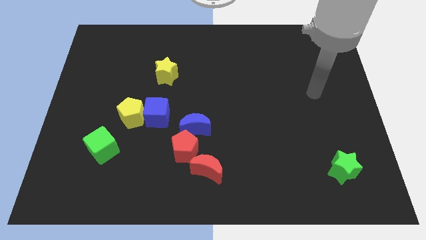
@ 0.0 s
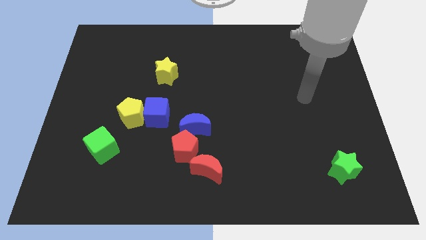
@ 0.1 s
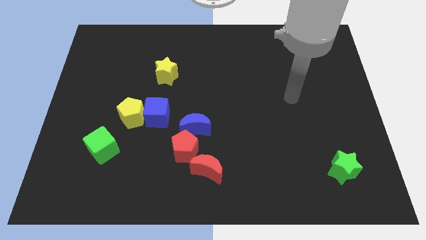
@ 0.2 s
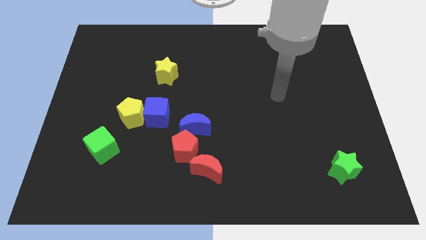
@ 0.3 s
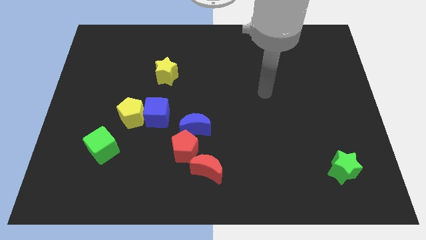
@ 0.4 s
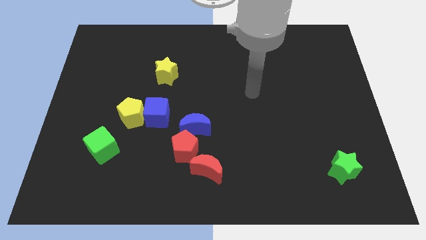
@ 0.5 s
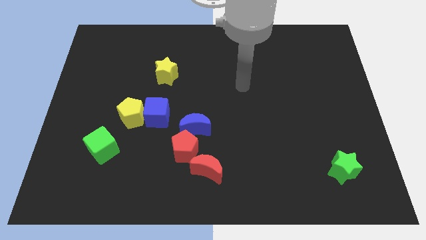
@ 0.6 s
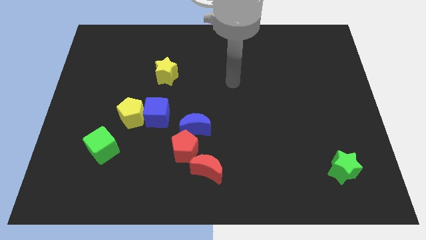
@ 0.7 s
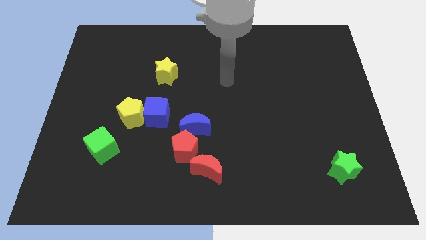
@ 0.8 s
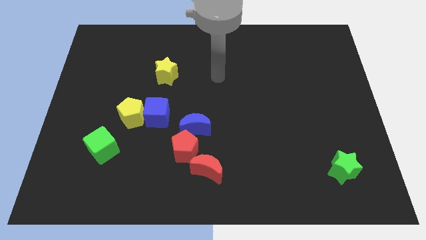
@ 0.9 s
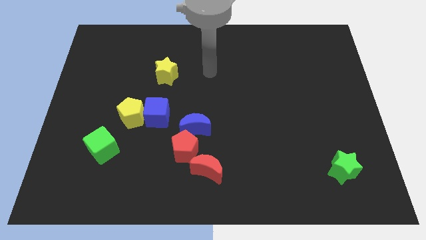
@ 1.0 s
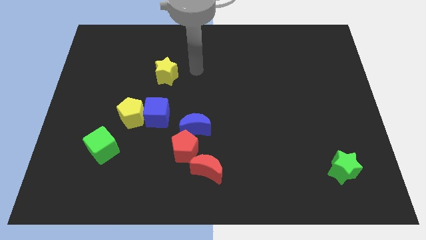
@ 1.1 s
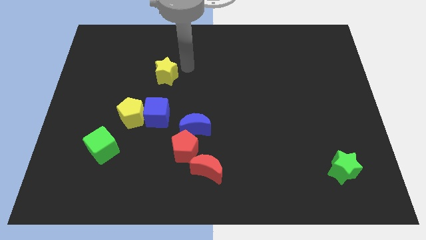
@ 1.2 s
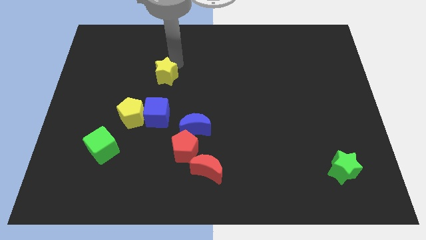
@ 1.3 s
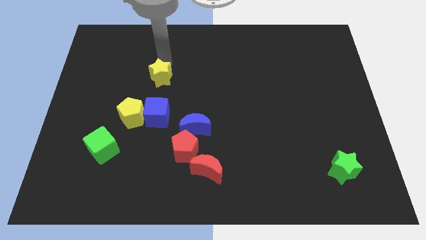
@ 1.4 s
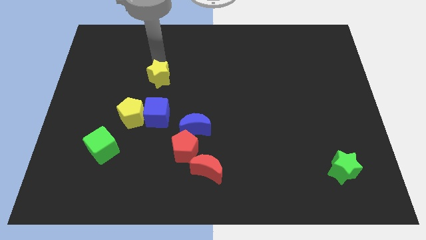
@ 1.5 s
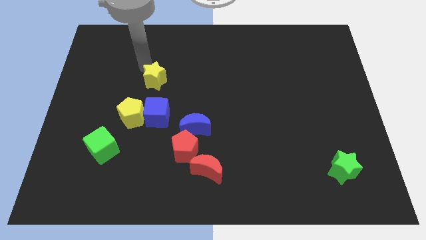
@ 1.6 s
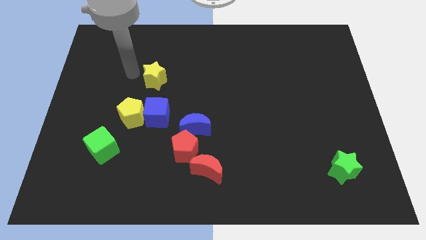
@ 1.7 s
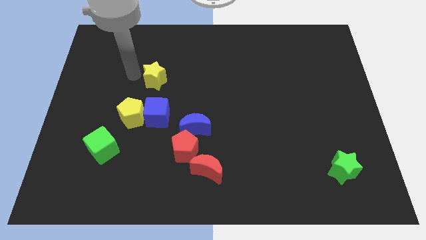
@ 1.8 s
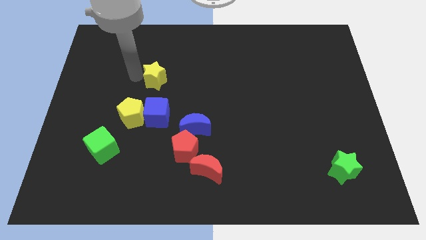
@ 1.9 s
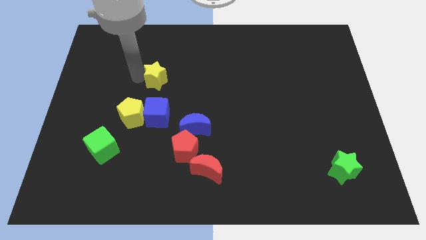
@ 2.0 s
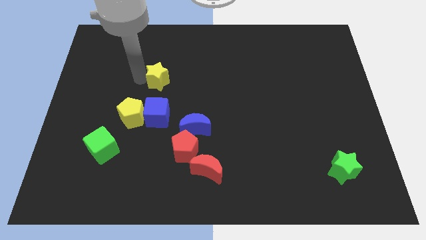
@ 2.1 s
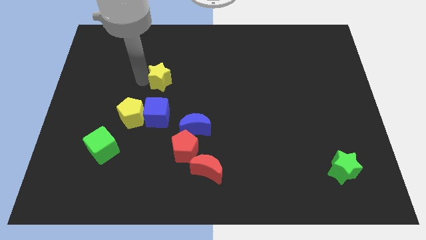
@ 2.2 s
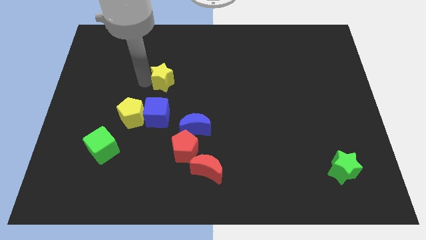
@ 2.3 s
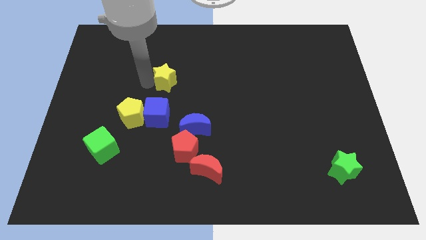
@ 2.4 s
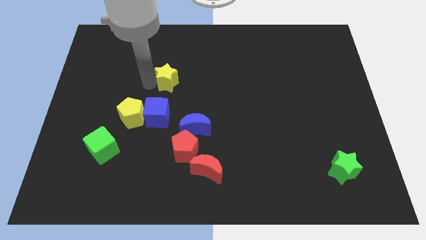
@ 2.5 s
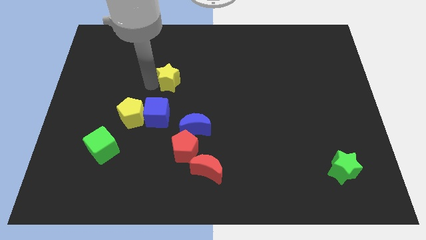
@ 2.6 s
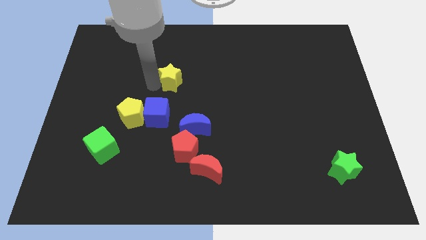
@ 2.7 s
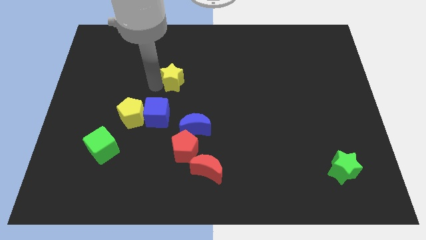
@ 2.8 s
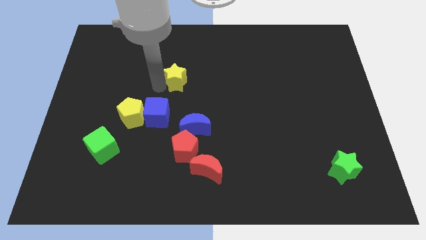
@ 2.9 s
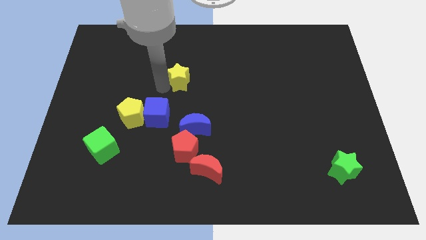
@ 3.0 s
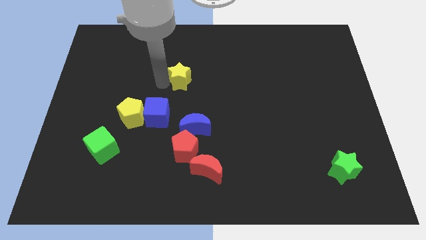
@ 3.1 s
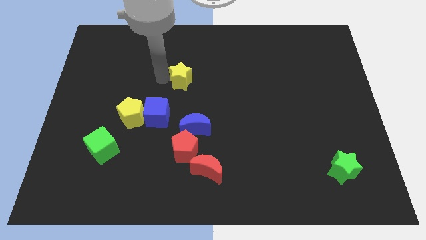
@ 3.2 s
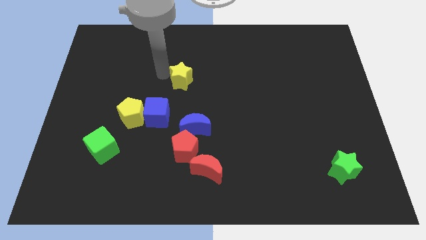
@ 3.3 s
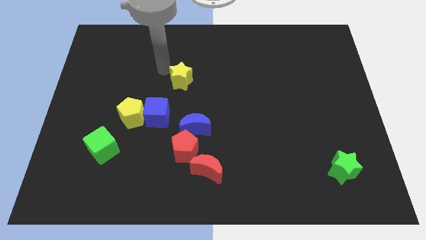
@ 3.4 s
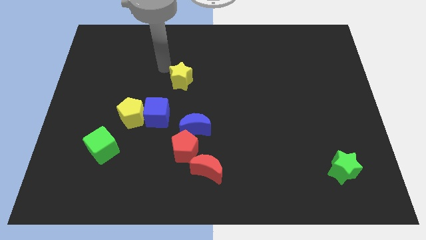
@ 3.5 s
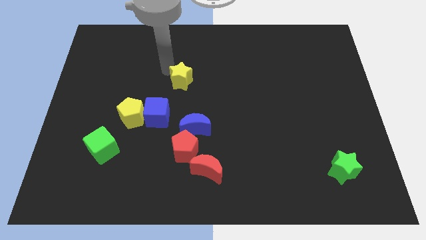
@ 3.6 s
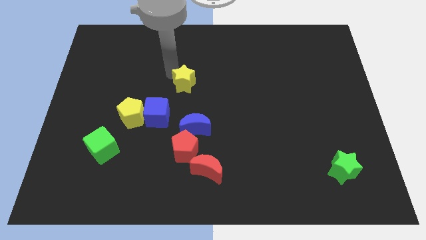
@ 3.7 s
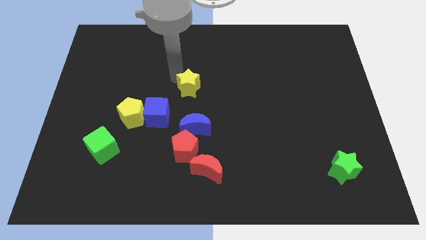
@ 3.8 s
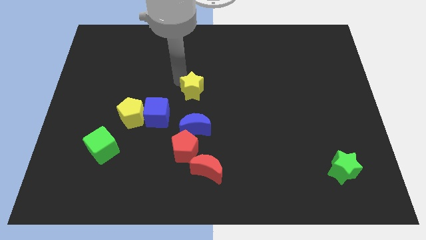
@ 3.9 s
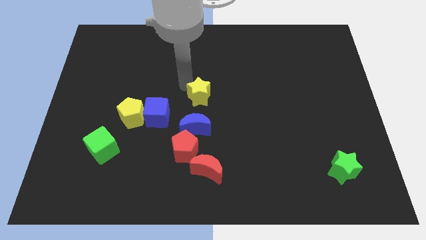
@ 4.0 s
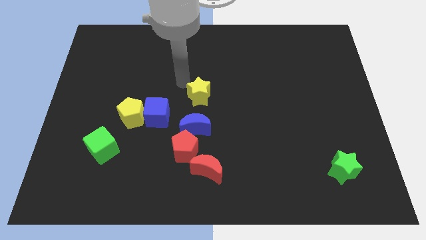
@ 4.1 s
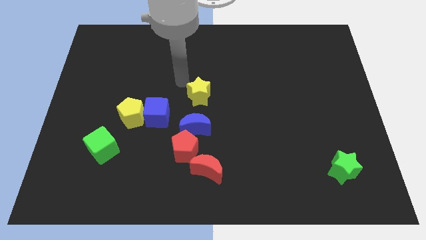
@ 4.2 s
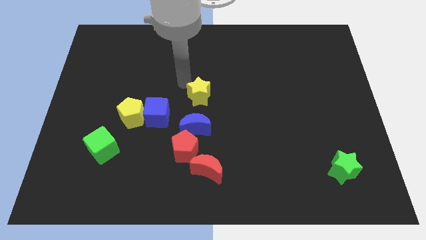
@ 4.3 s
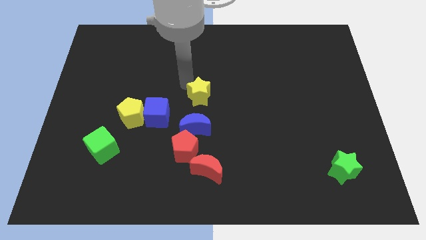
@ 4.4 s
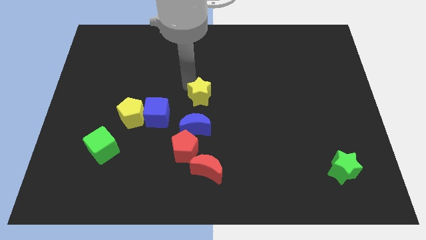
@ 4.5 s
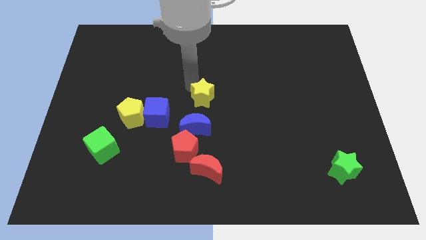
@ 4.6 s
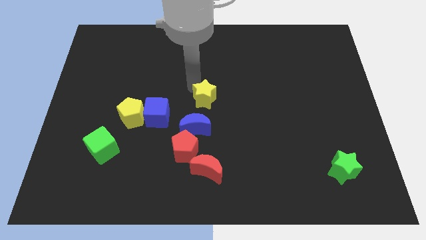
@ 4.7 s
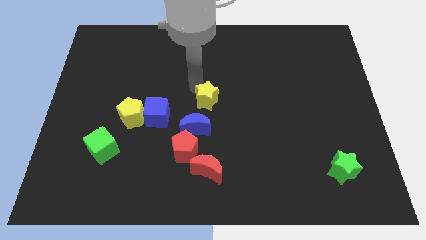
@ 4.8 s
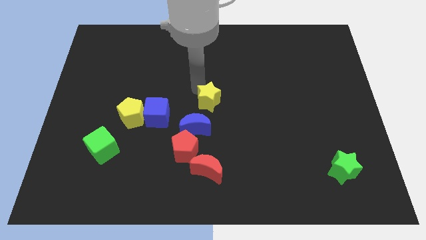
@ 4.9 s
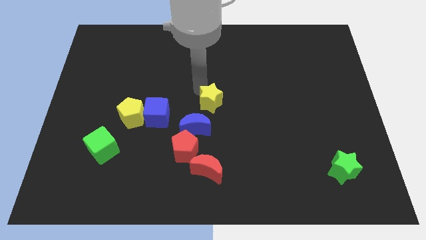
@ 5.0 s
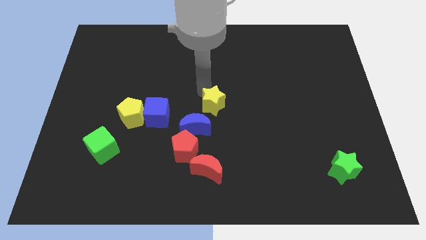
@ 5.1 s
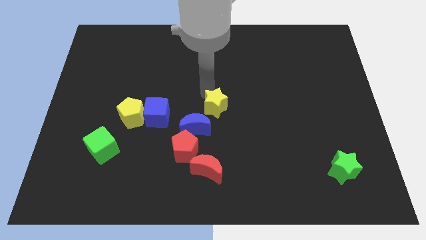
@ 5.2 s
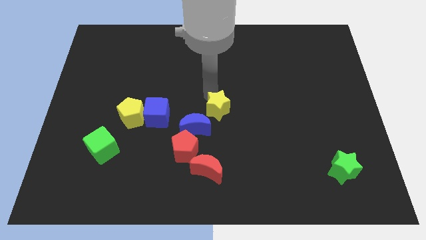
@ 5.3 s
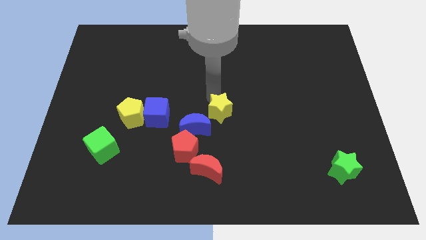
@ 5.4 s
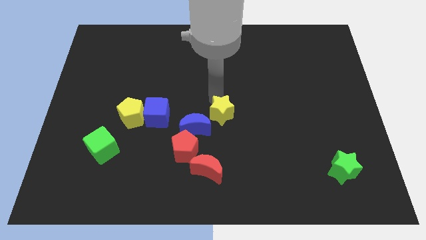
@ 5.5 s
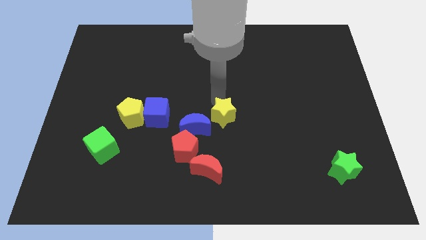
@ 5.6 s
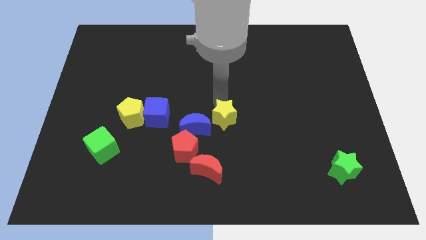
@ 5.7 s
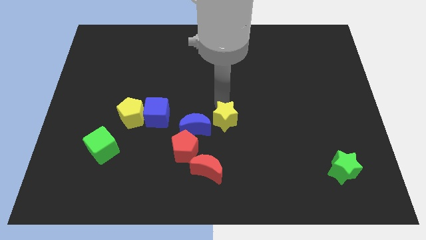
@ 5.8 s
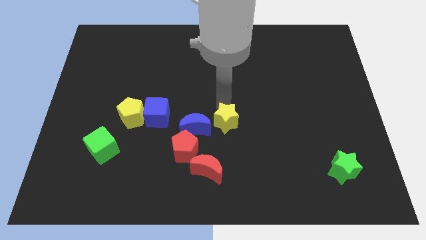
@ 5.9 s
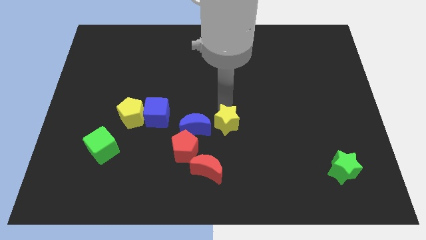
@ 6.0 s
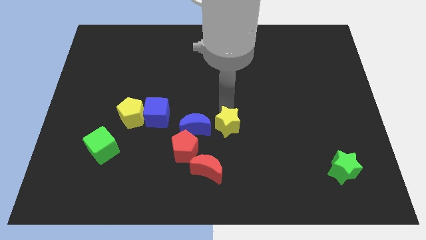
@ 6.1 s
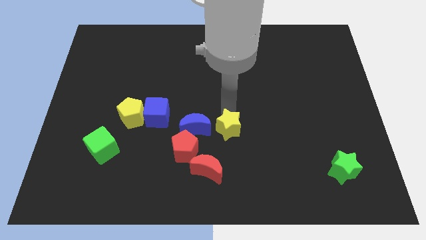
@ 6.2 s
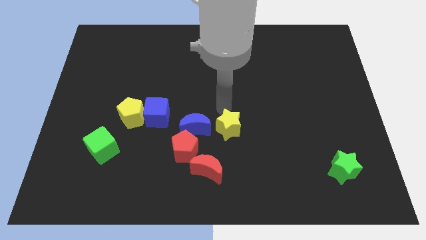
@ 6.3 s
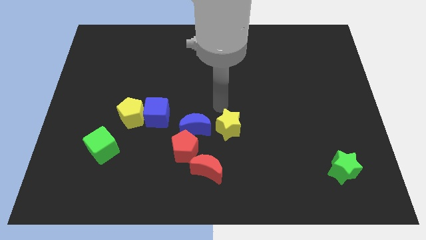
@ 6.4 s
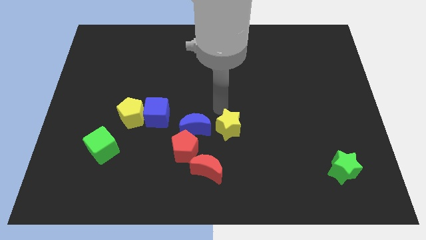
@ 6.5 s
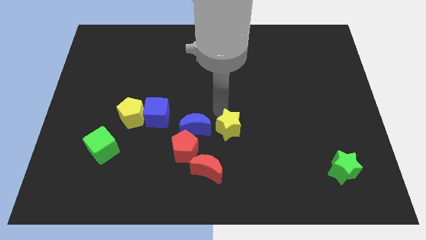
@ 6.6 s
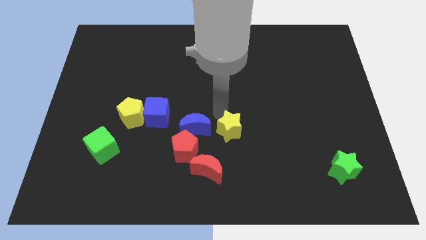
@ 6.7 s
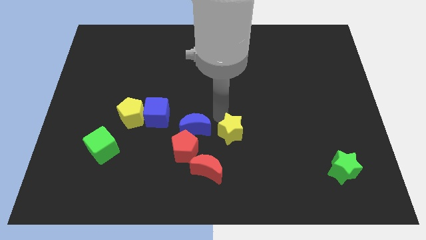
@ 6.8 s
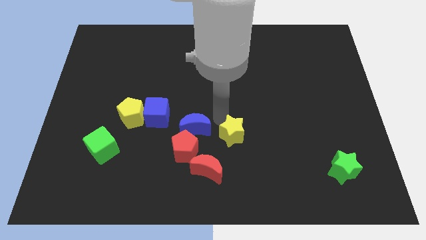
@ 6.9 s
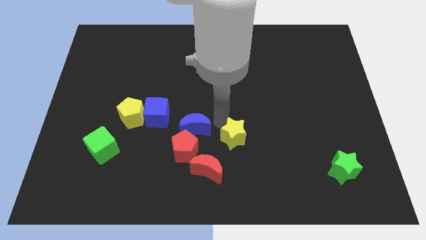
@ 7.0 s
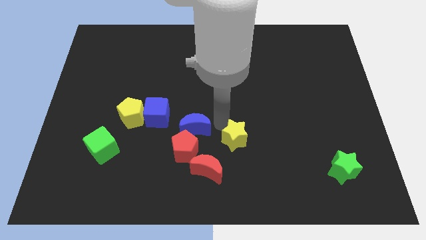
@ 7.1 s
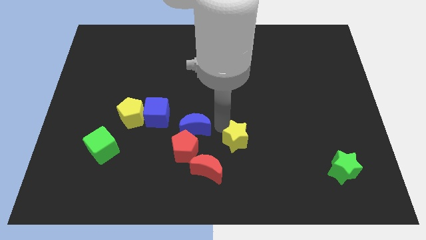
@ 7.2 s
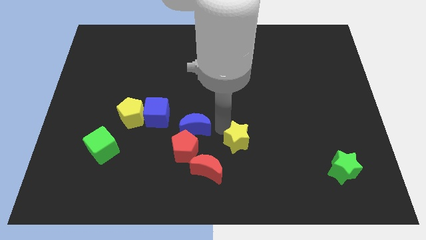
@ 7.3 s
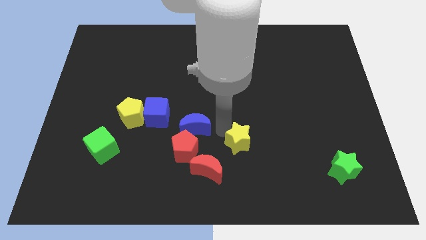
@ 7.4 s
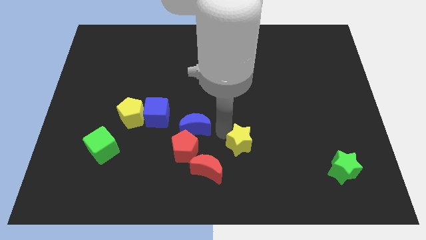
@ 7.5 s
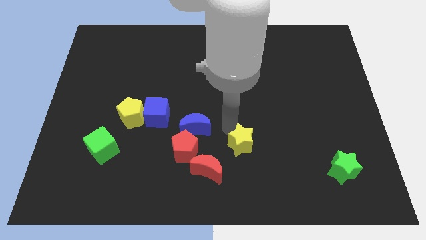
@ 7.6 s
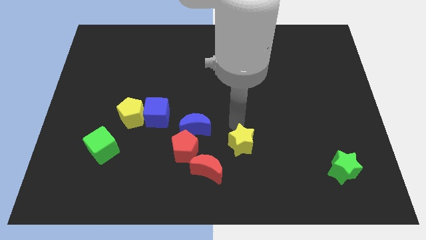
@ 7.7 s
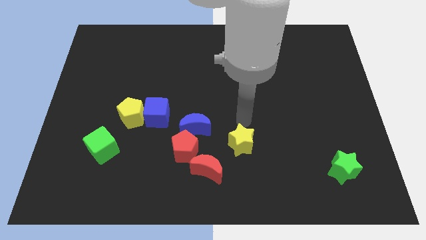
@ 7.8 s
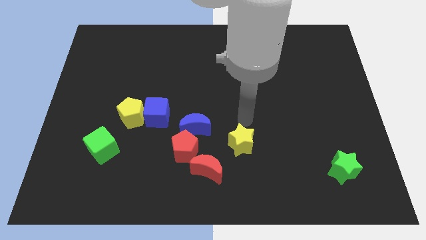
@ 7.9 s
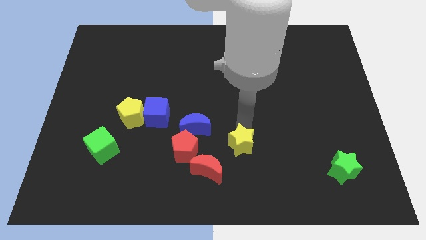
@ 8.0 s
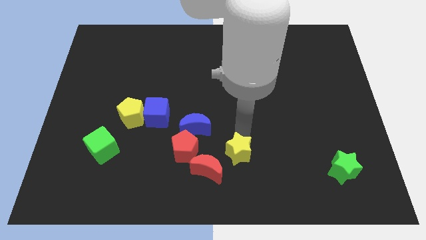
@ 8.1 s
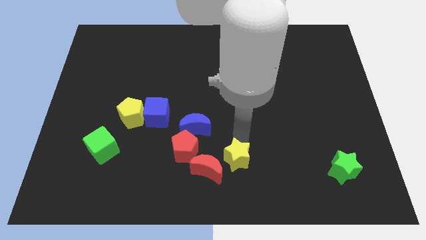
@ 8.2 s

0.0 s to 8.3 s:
move the yellow star to the bottom side
